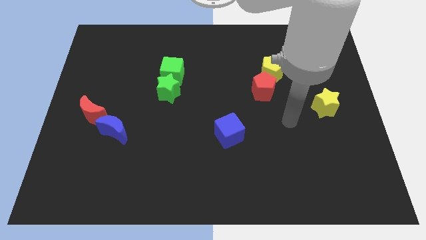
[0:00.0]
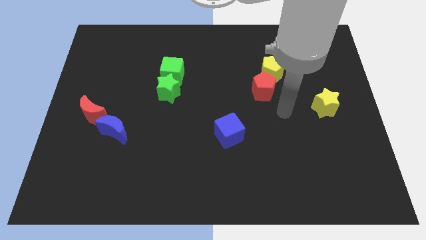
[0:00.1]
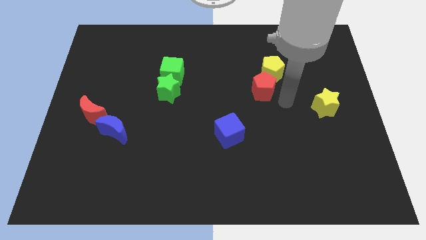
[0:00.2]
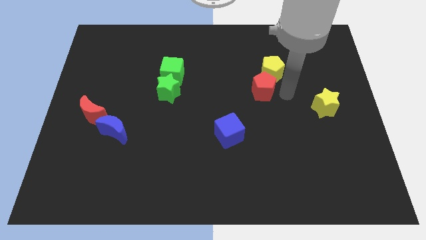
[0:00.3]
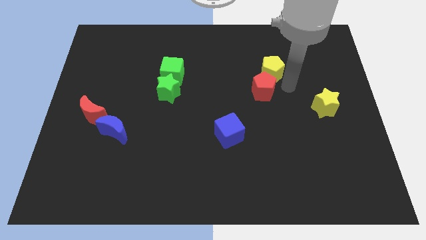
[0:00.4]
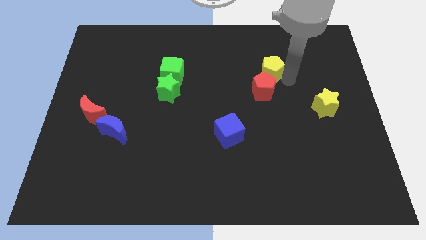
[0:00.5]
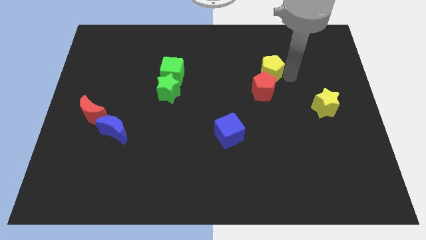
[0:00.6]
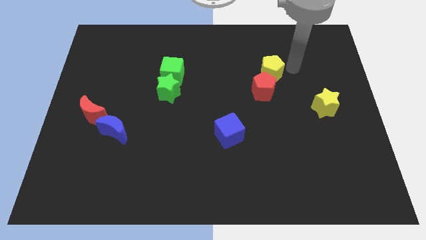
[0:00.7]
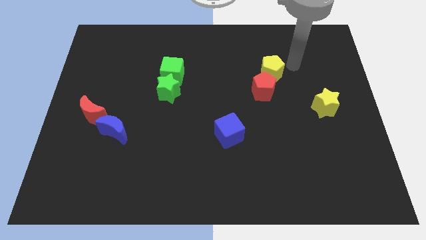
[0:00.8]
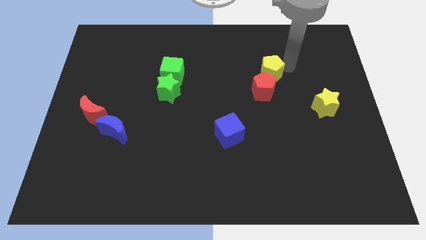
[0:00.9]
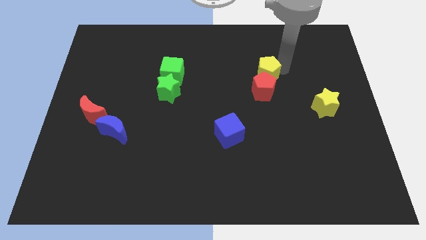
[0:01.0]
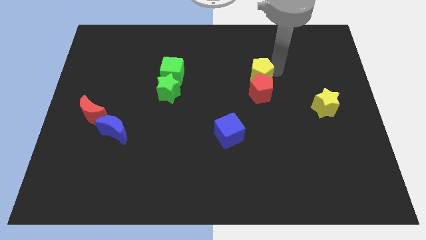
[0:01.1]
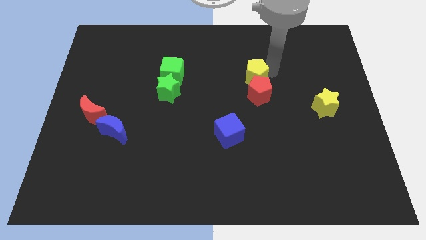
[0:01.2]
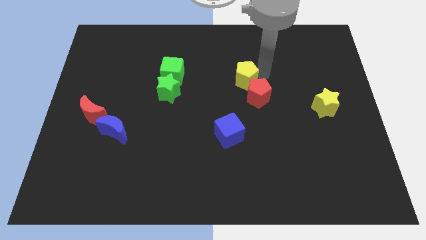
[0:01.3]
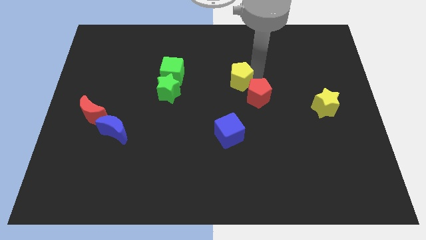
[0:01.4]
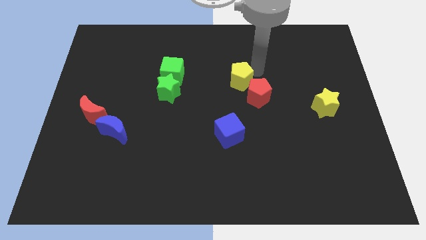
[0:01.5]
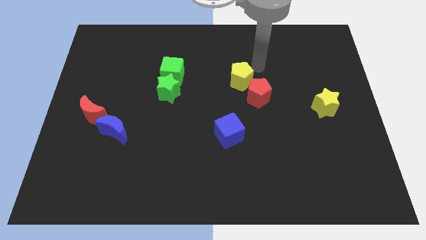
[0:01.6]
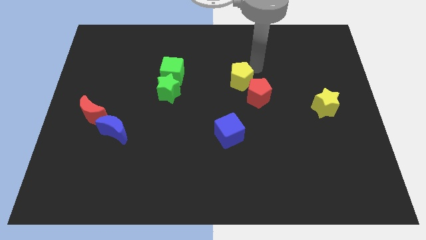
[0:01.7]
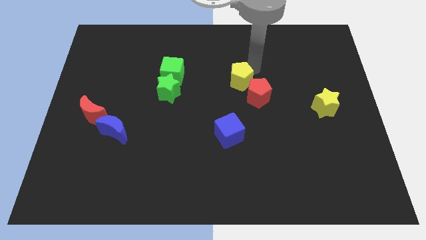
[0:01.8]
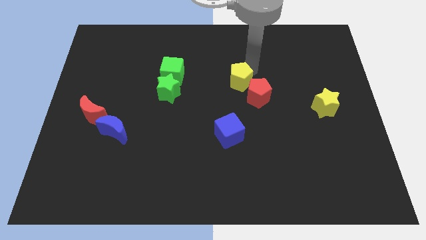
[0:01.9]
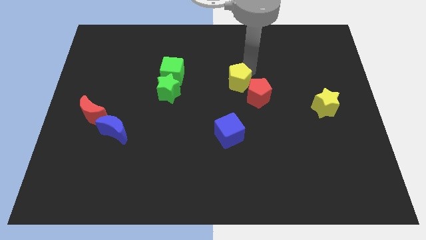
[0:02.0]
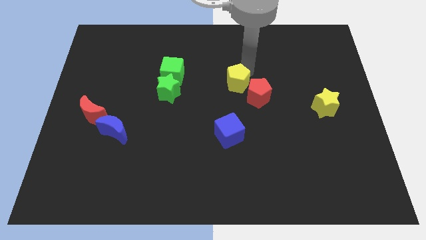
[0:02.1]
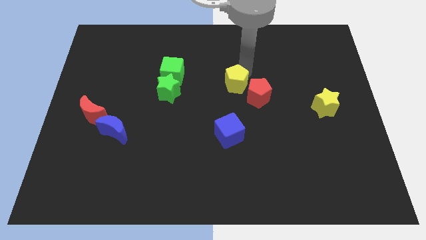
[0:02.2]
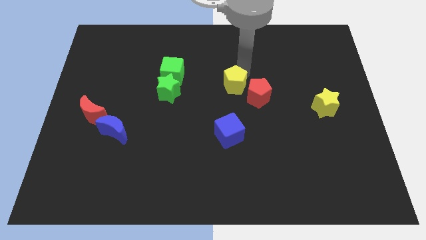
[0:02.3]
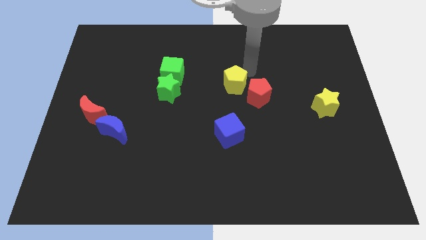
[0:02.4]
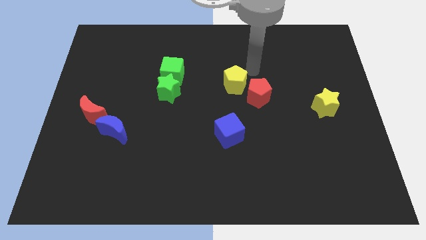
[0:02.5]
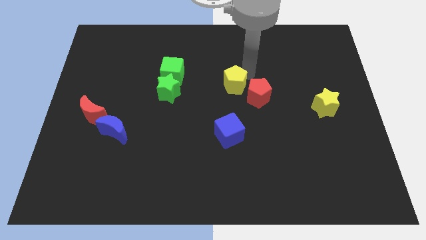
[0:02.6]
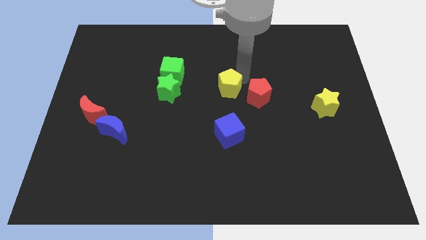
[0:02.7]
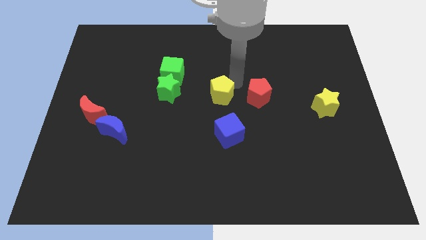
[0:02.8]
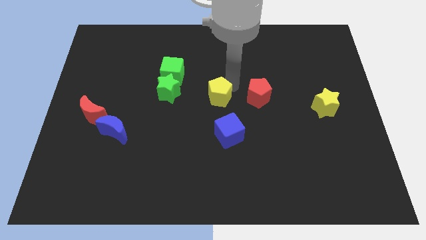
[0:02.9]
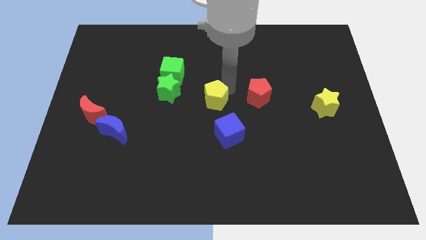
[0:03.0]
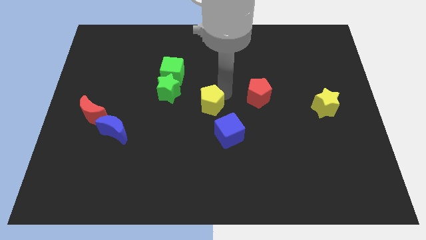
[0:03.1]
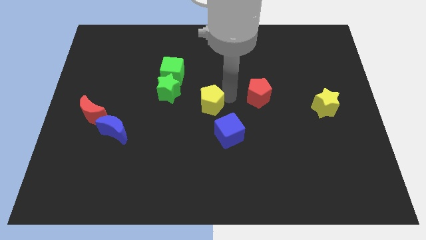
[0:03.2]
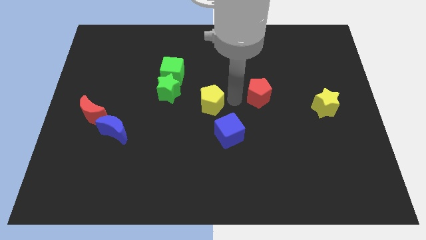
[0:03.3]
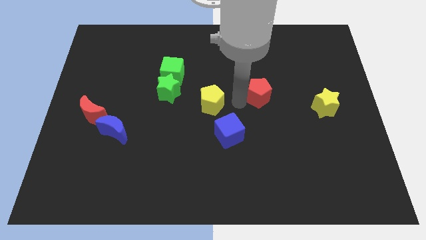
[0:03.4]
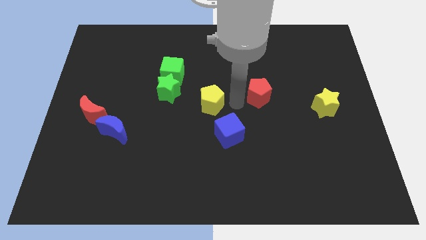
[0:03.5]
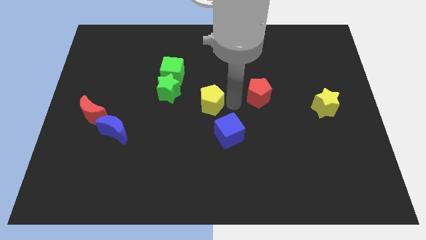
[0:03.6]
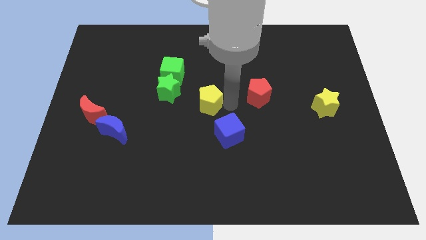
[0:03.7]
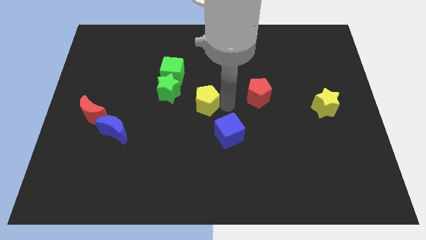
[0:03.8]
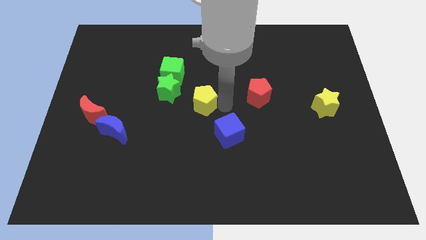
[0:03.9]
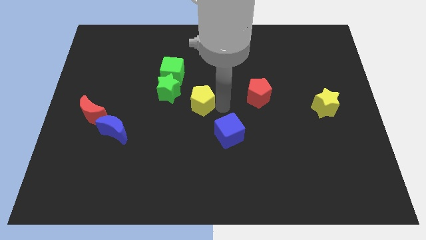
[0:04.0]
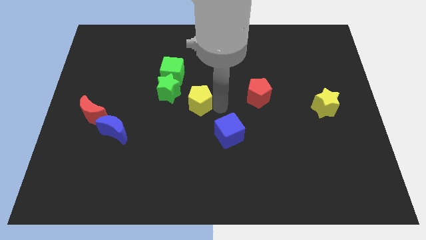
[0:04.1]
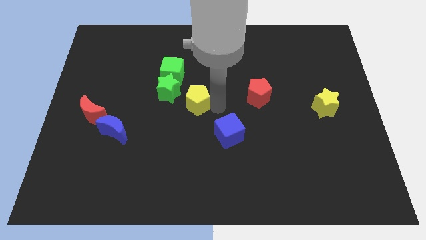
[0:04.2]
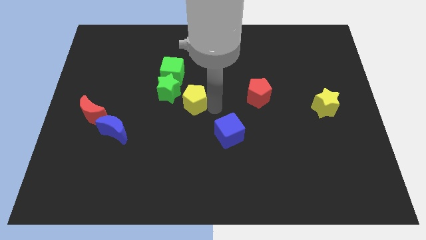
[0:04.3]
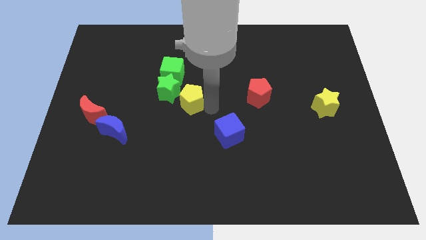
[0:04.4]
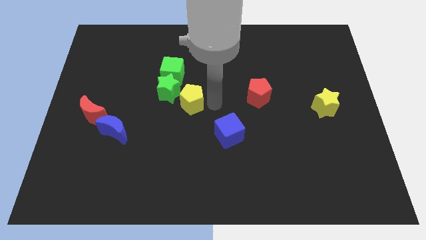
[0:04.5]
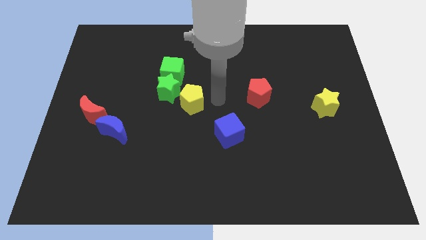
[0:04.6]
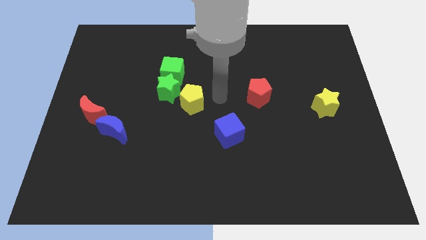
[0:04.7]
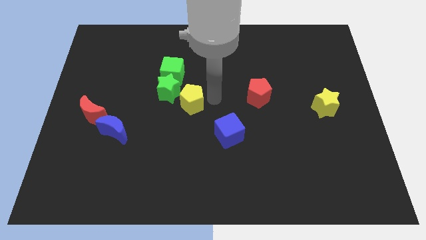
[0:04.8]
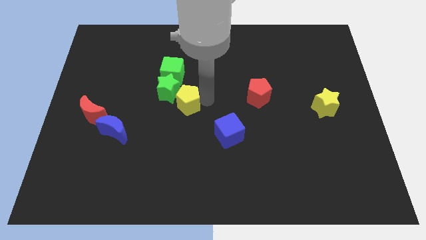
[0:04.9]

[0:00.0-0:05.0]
slide the yellow pentagon below the green cube

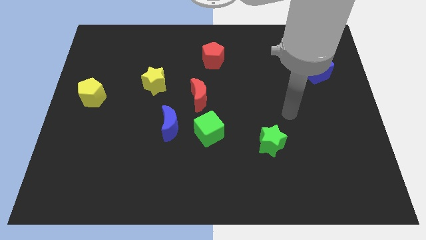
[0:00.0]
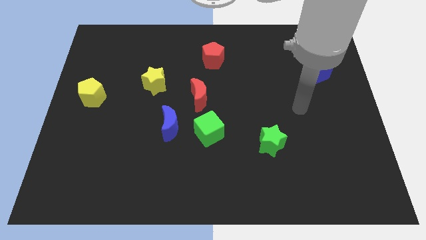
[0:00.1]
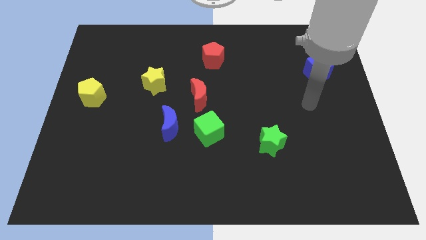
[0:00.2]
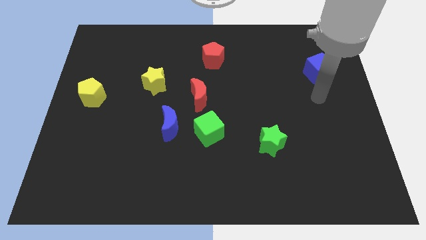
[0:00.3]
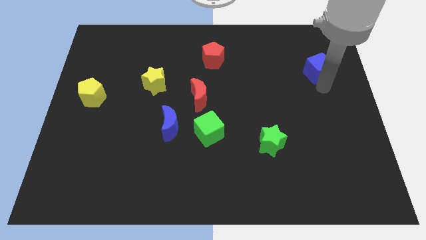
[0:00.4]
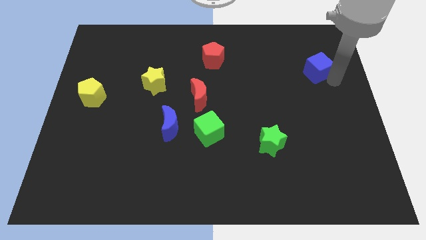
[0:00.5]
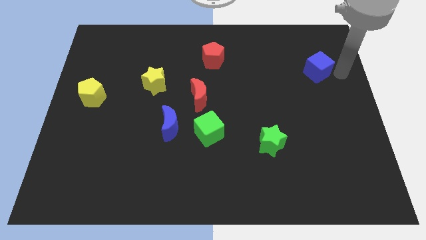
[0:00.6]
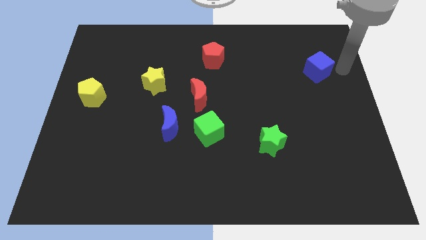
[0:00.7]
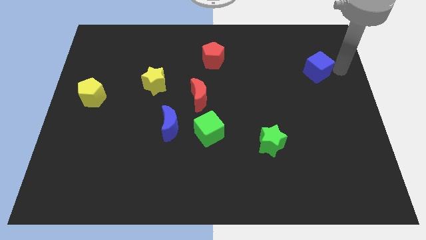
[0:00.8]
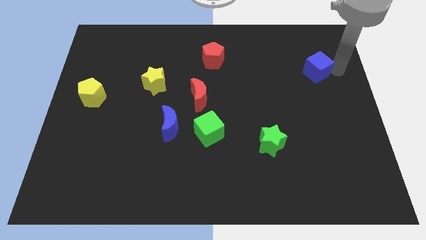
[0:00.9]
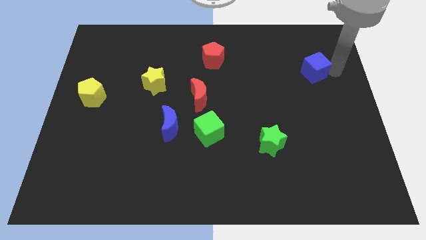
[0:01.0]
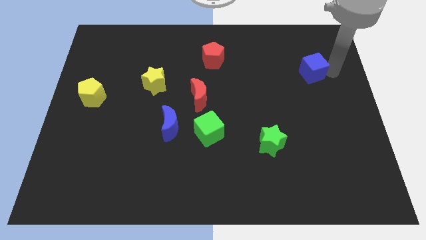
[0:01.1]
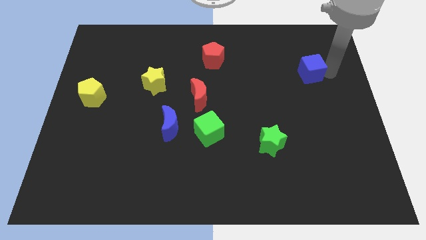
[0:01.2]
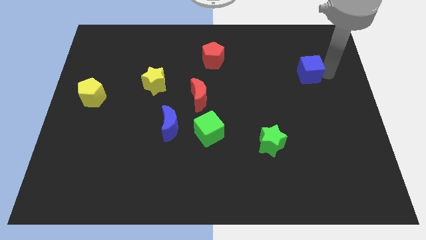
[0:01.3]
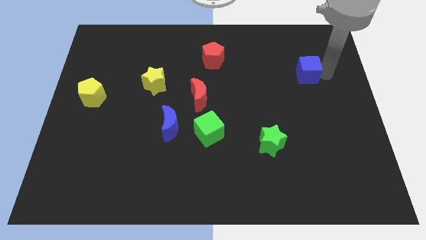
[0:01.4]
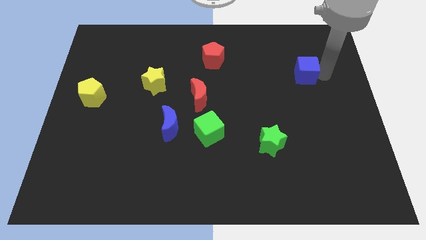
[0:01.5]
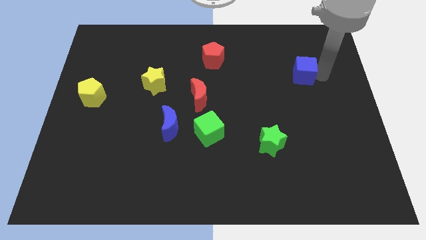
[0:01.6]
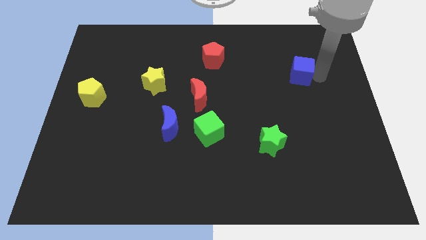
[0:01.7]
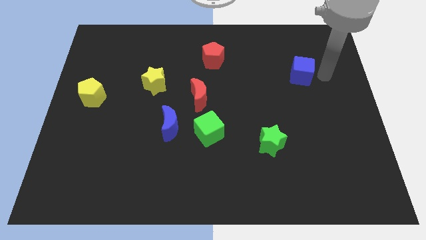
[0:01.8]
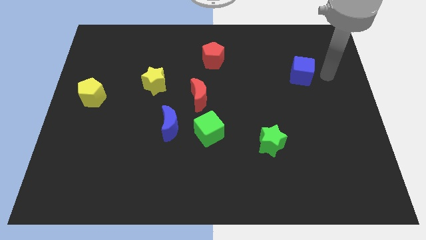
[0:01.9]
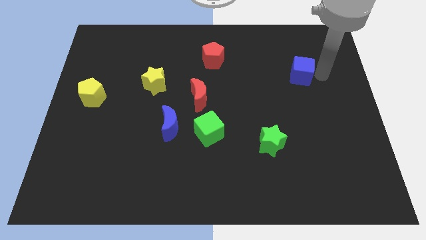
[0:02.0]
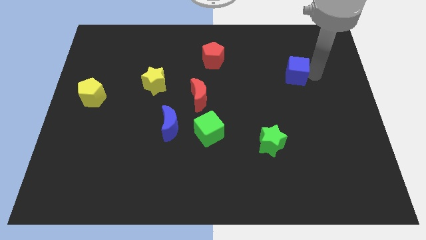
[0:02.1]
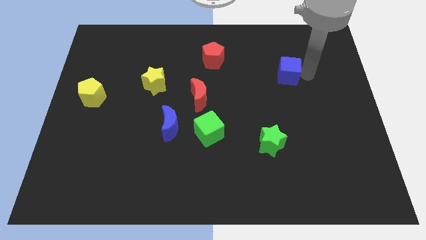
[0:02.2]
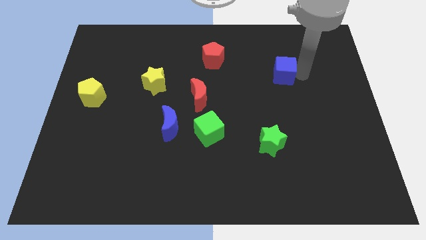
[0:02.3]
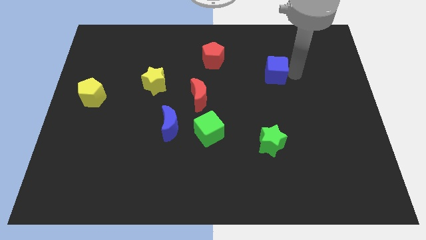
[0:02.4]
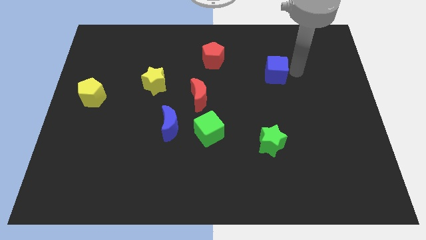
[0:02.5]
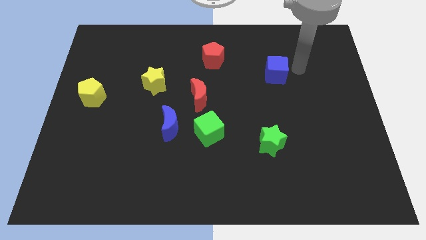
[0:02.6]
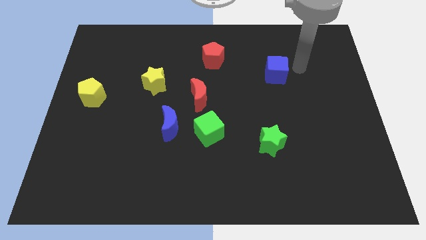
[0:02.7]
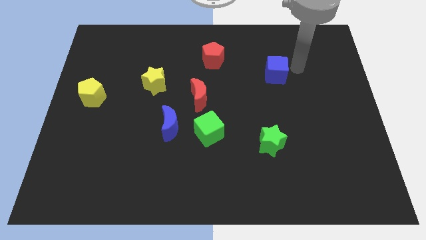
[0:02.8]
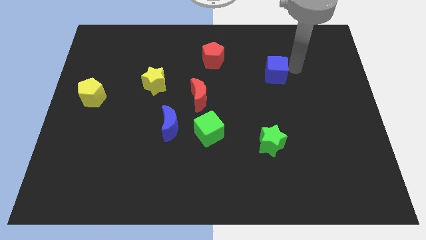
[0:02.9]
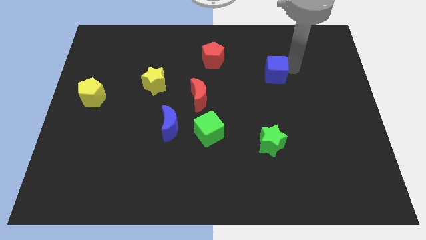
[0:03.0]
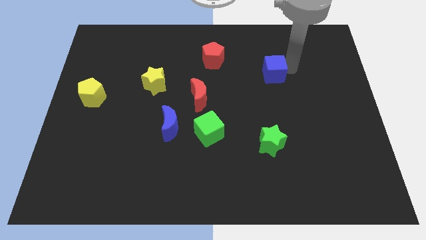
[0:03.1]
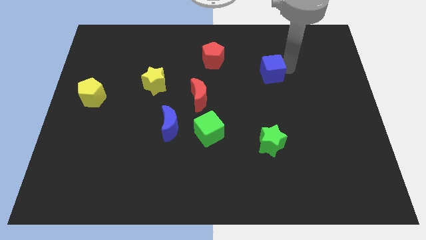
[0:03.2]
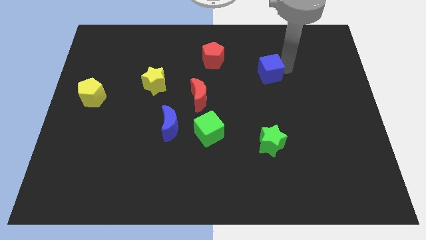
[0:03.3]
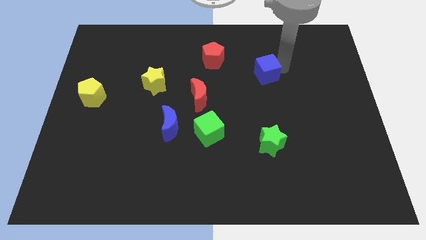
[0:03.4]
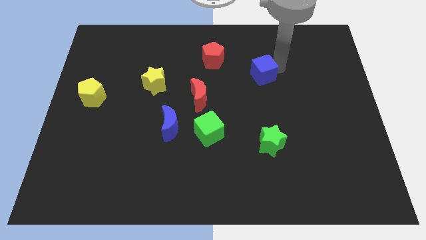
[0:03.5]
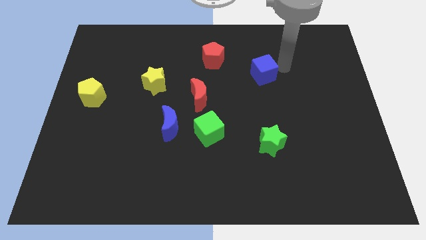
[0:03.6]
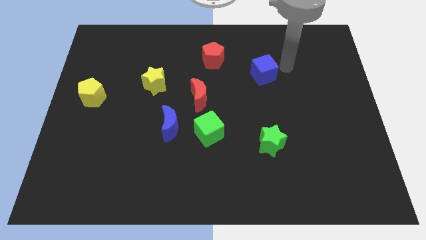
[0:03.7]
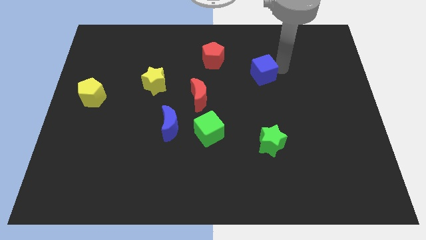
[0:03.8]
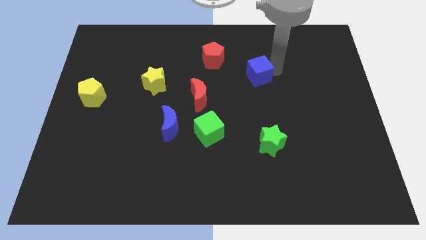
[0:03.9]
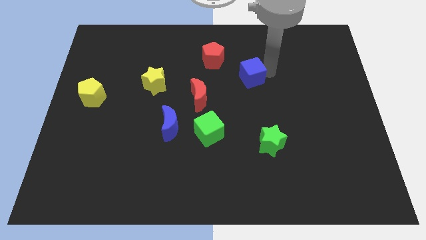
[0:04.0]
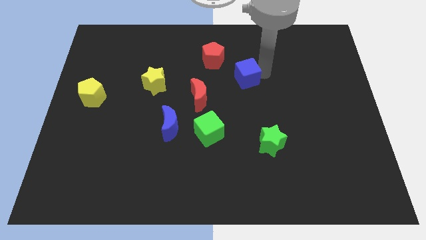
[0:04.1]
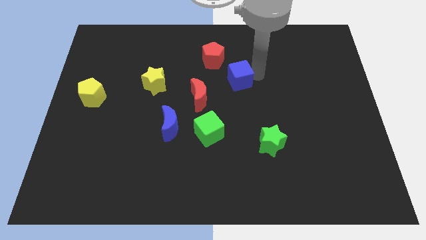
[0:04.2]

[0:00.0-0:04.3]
push the blue cube to the top right side of the red moon
